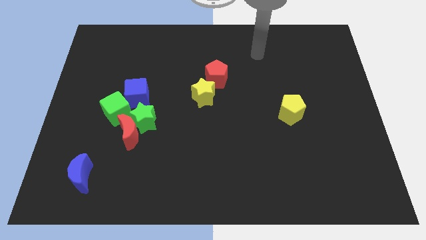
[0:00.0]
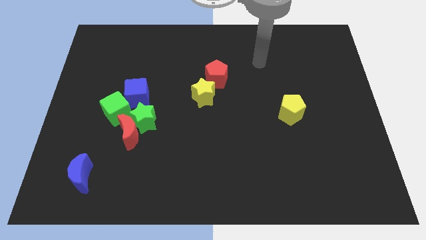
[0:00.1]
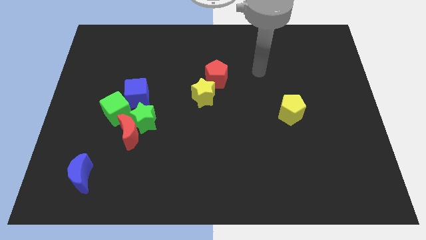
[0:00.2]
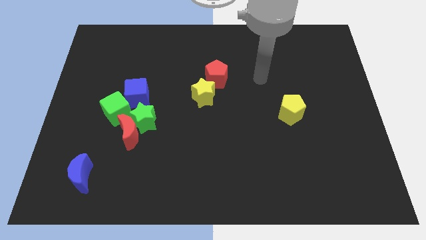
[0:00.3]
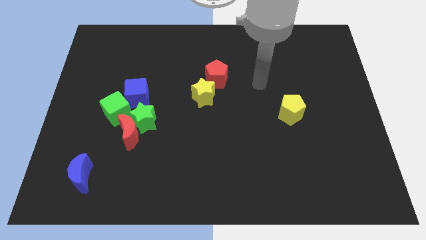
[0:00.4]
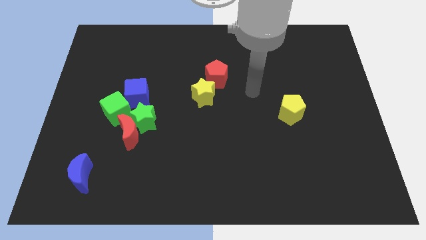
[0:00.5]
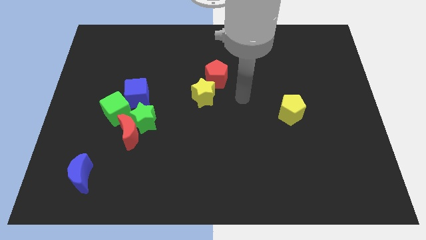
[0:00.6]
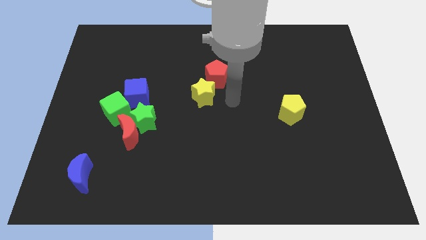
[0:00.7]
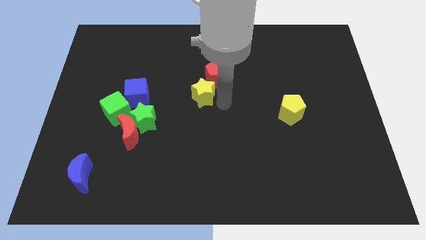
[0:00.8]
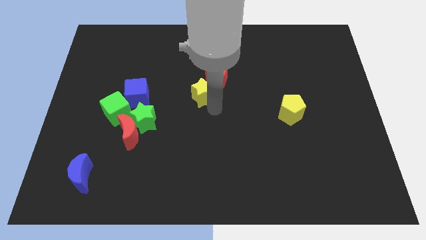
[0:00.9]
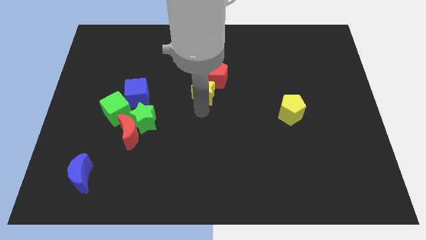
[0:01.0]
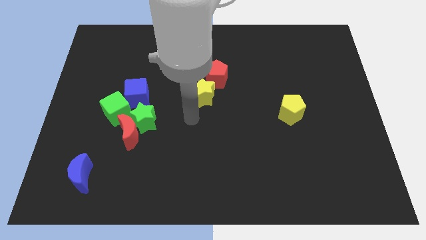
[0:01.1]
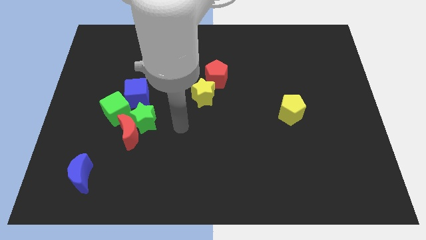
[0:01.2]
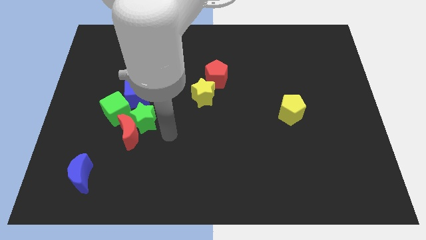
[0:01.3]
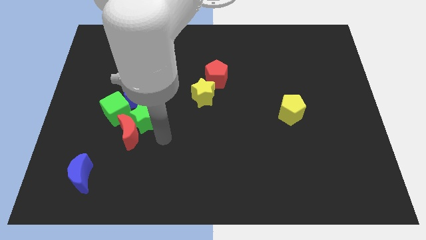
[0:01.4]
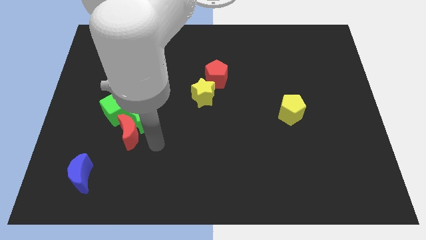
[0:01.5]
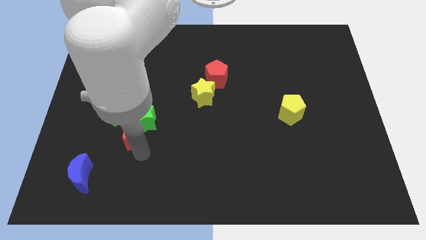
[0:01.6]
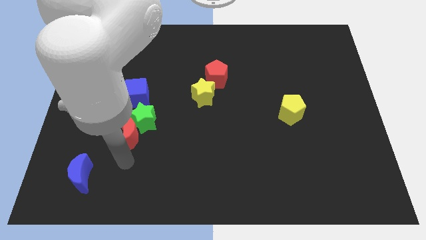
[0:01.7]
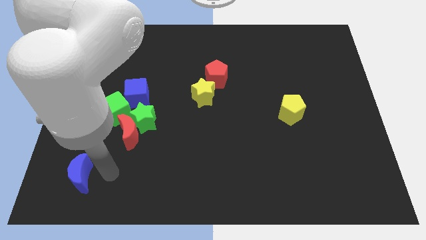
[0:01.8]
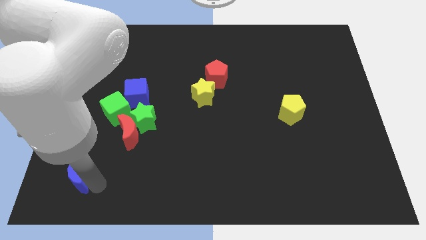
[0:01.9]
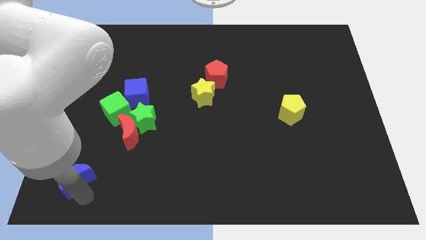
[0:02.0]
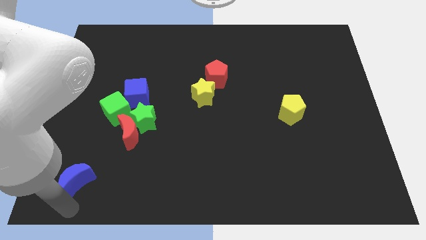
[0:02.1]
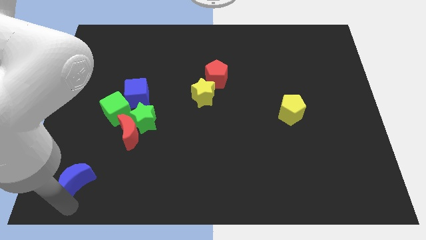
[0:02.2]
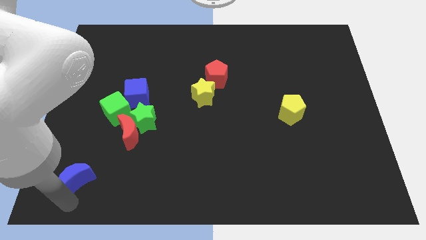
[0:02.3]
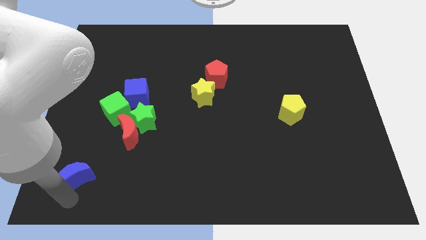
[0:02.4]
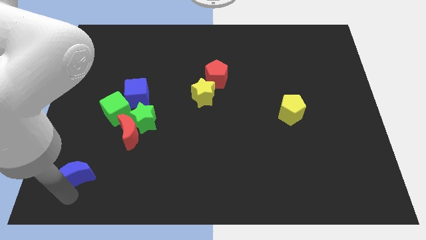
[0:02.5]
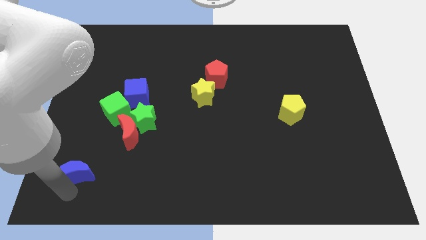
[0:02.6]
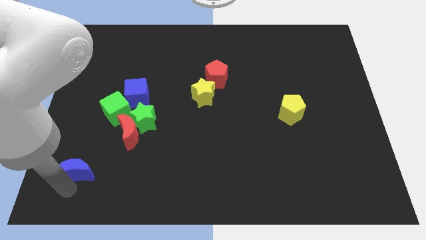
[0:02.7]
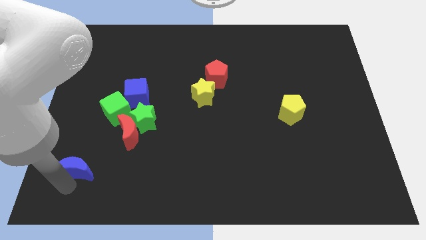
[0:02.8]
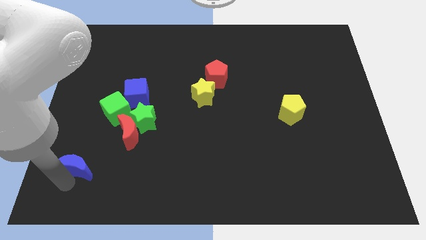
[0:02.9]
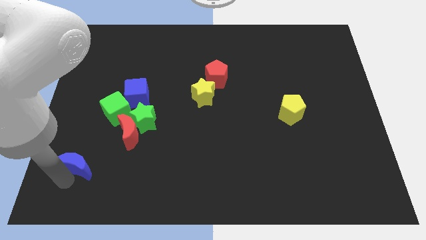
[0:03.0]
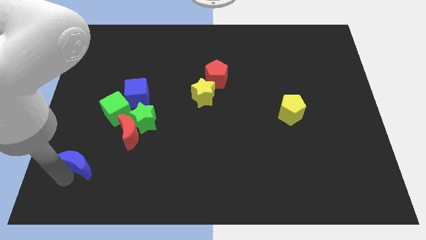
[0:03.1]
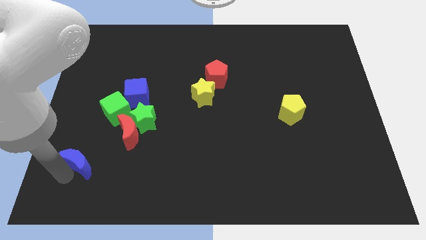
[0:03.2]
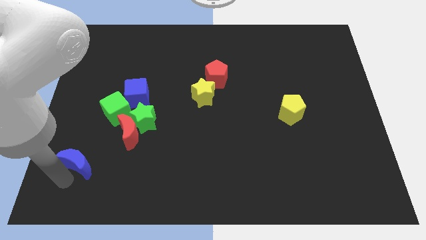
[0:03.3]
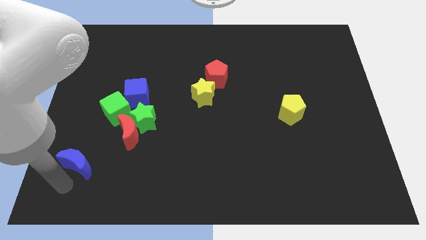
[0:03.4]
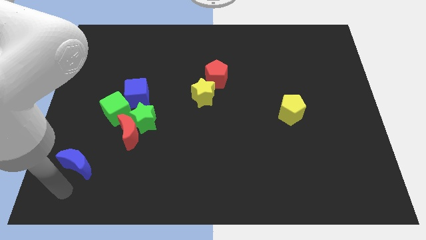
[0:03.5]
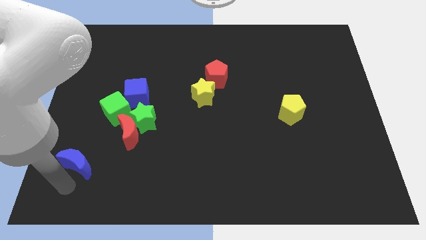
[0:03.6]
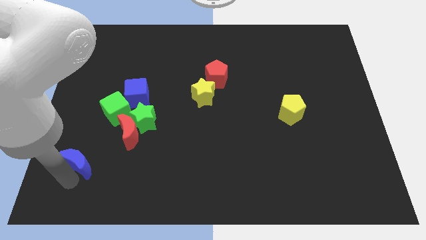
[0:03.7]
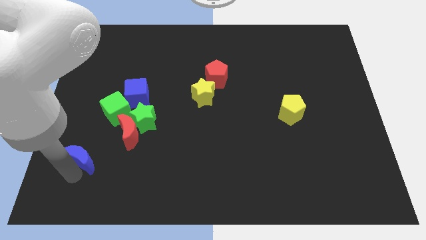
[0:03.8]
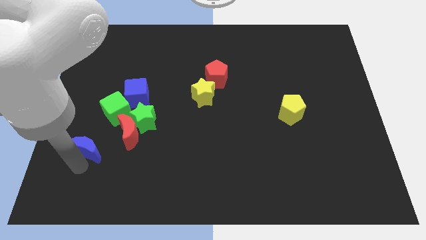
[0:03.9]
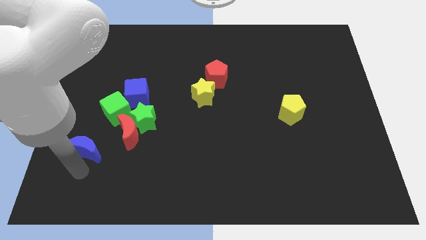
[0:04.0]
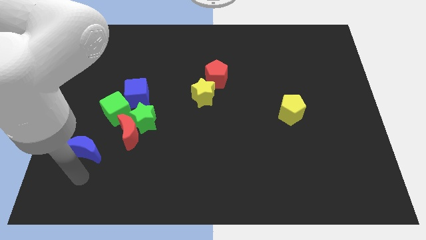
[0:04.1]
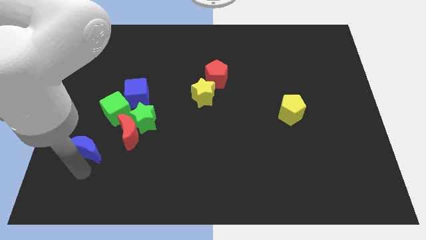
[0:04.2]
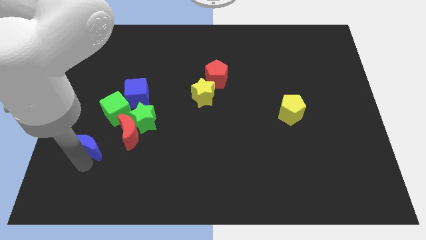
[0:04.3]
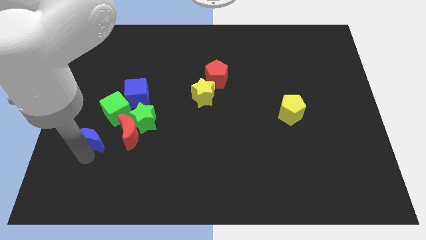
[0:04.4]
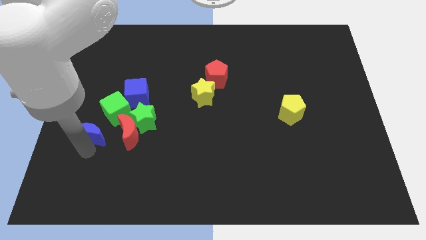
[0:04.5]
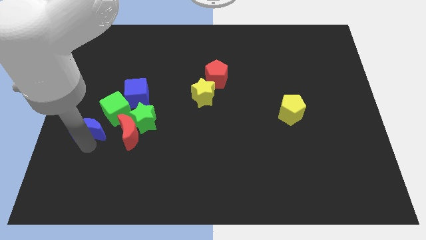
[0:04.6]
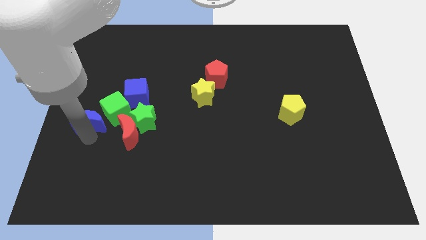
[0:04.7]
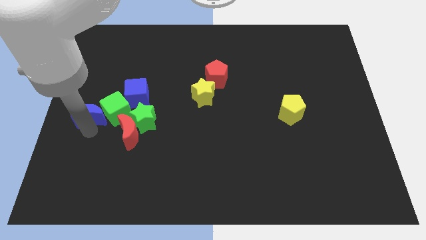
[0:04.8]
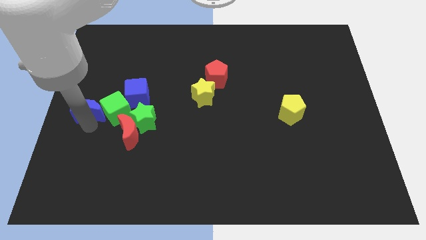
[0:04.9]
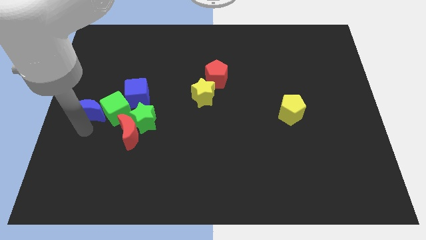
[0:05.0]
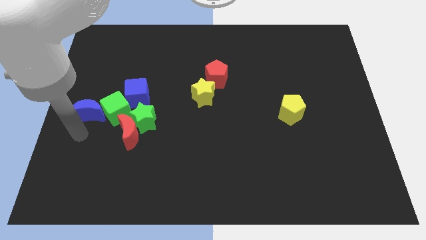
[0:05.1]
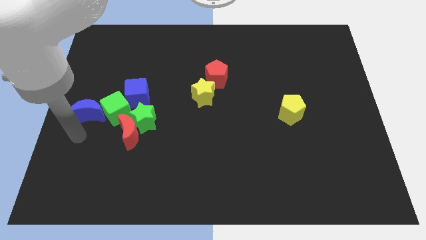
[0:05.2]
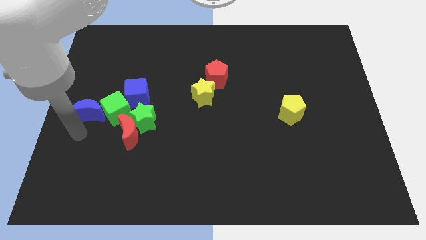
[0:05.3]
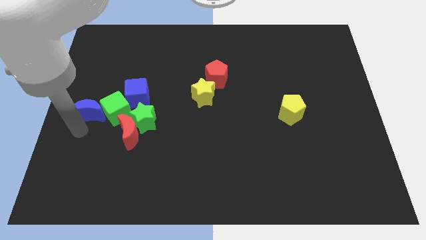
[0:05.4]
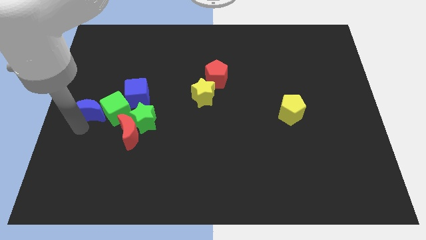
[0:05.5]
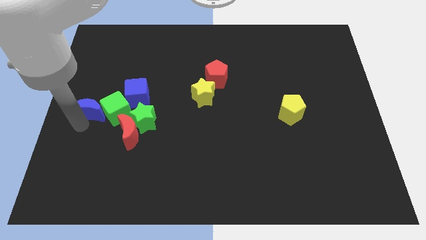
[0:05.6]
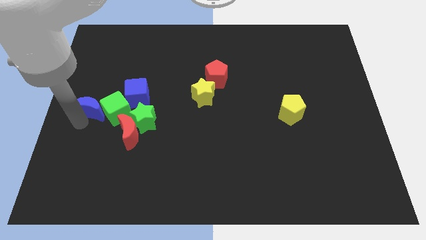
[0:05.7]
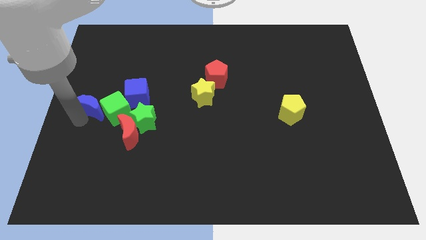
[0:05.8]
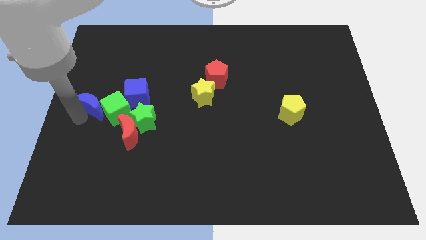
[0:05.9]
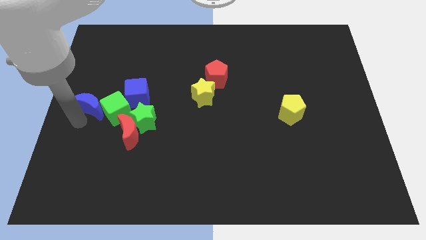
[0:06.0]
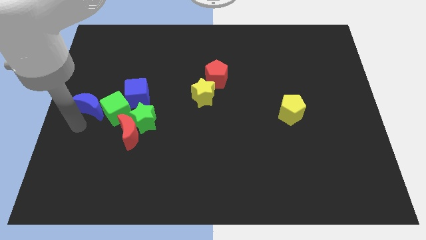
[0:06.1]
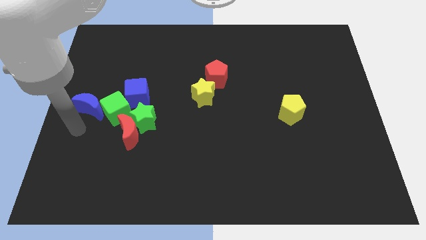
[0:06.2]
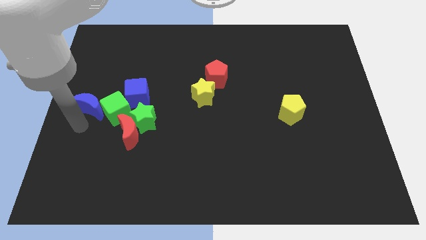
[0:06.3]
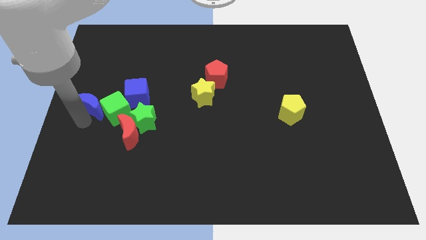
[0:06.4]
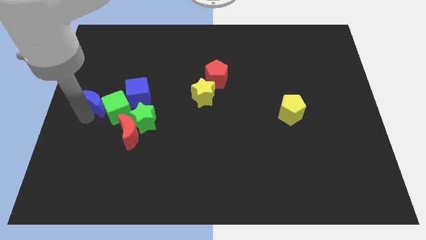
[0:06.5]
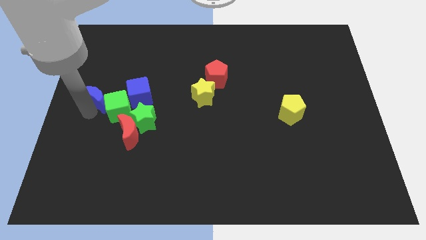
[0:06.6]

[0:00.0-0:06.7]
slide the blue moon upwards

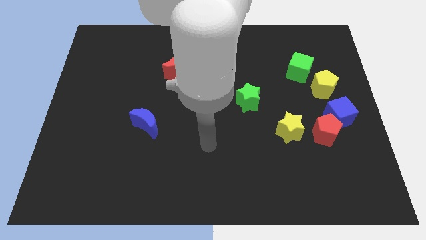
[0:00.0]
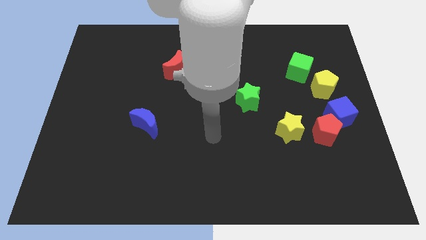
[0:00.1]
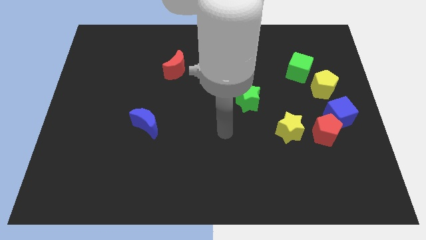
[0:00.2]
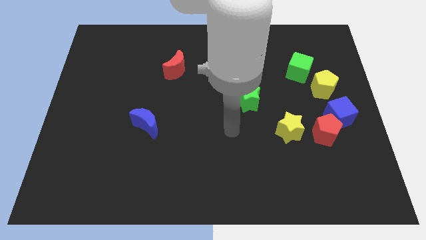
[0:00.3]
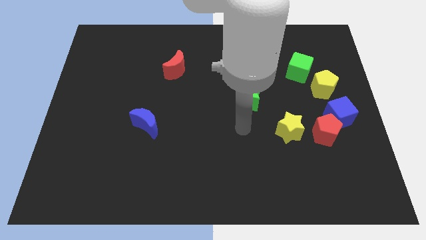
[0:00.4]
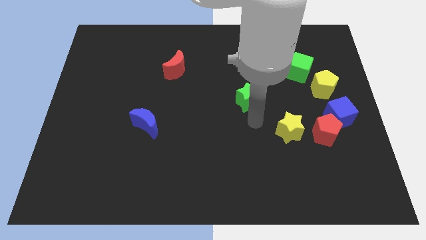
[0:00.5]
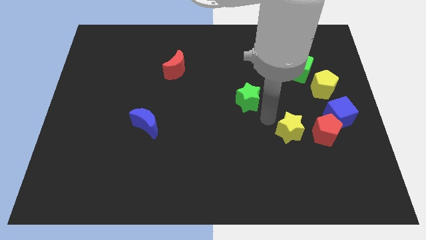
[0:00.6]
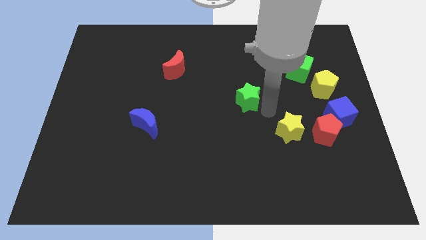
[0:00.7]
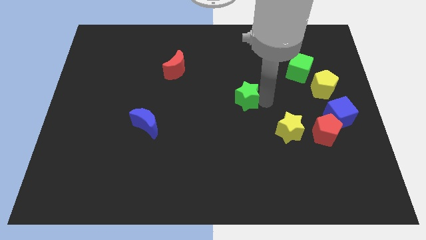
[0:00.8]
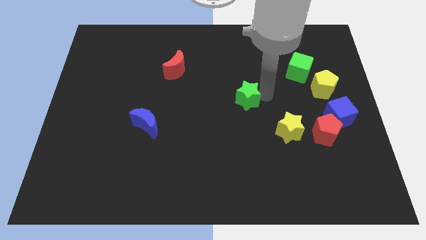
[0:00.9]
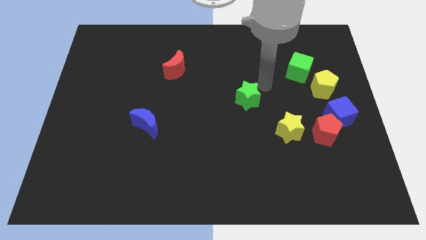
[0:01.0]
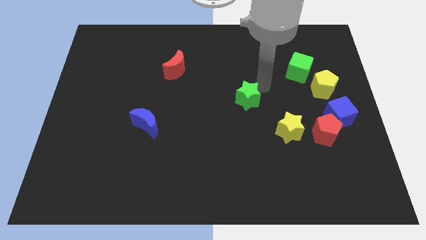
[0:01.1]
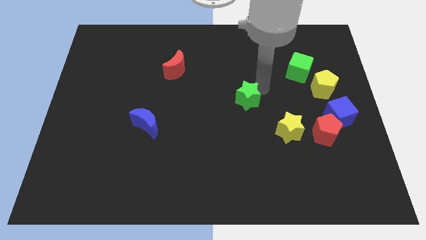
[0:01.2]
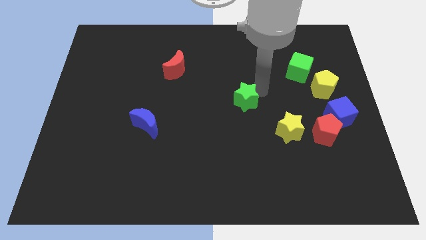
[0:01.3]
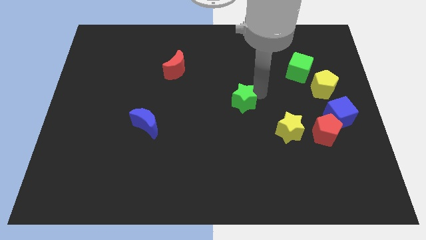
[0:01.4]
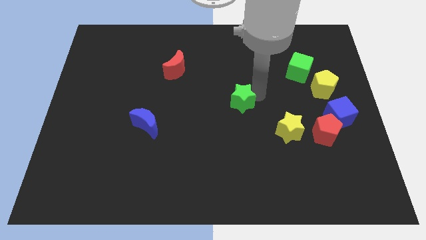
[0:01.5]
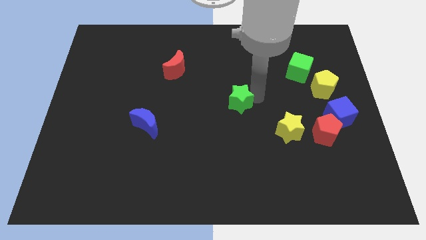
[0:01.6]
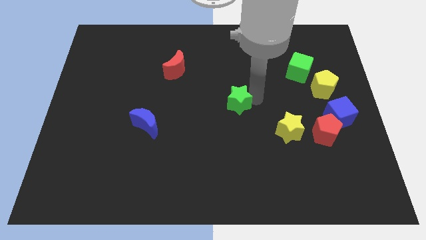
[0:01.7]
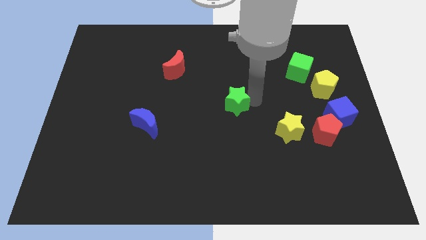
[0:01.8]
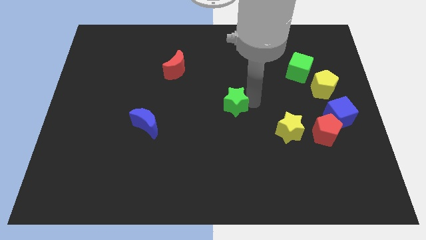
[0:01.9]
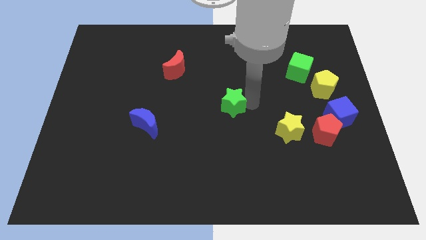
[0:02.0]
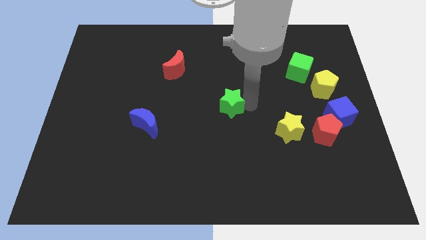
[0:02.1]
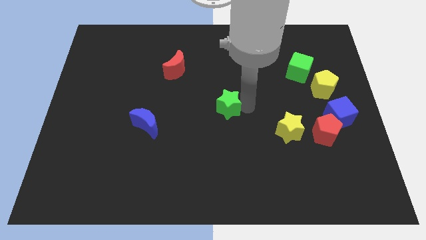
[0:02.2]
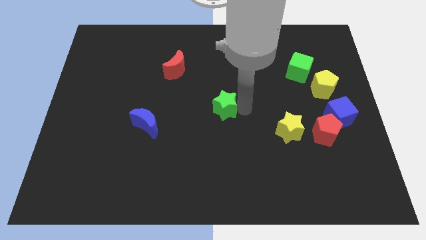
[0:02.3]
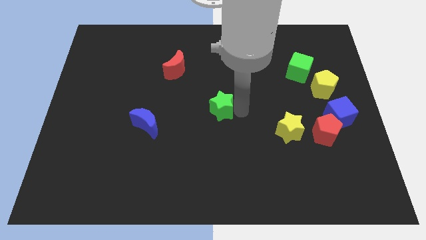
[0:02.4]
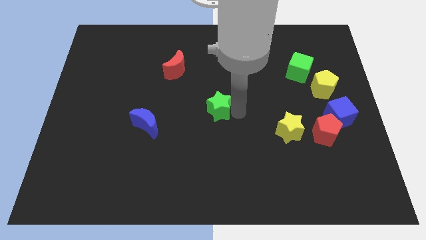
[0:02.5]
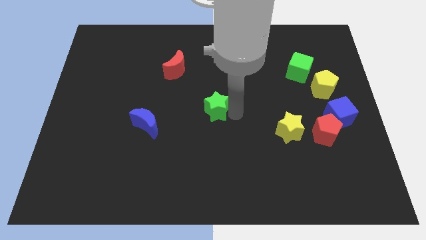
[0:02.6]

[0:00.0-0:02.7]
slightly move the green star down and to the left
